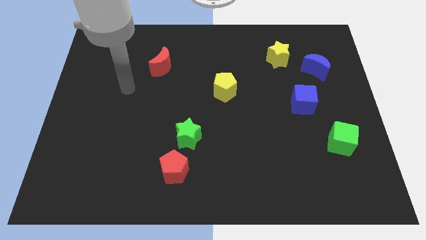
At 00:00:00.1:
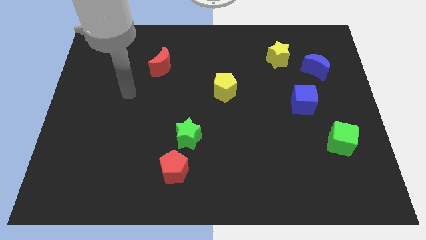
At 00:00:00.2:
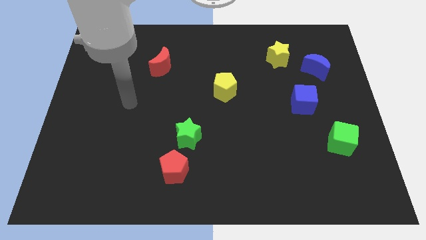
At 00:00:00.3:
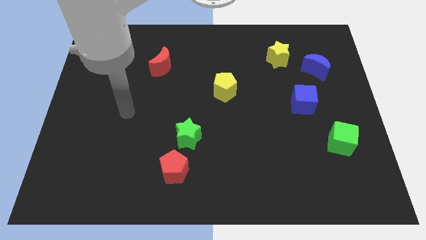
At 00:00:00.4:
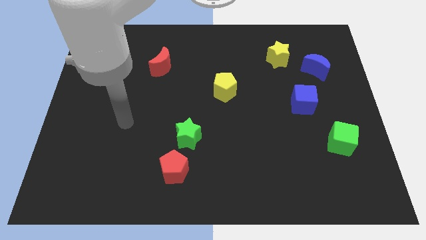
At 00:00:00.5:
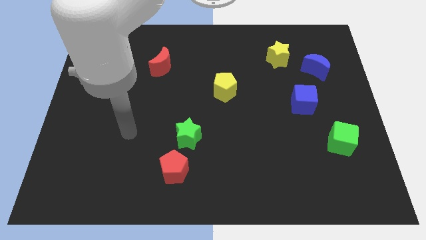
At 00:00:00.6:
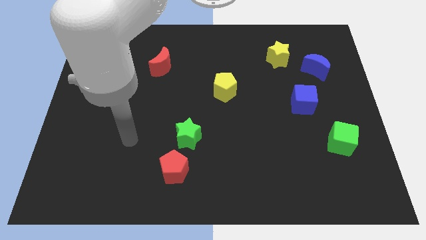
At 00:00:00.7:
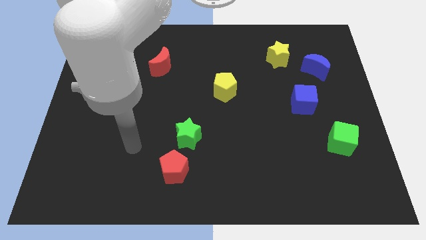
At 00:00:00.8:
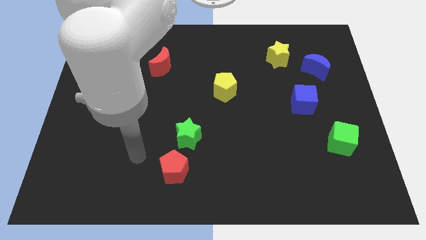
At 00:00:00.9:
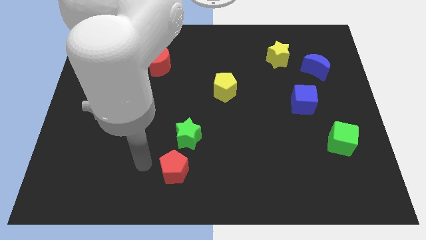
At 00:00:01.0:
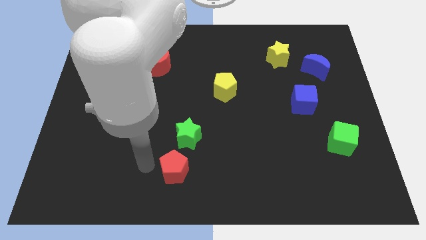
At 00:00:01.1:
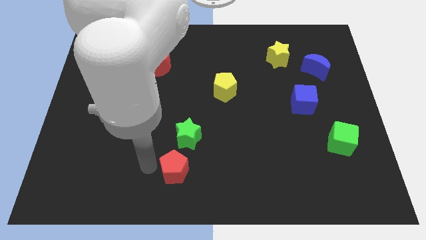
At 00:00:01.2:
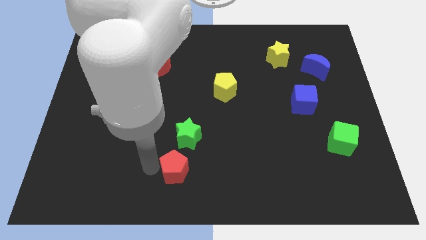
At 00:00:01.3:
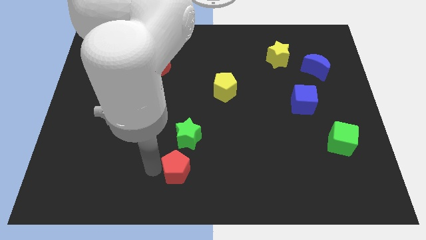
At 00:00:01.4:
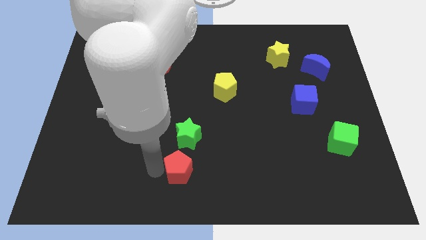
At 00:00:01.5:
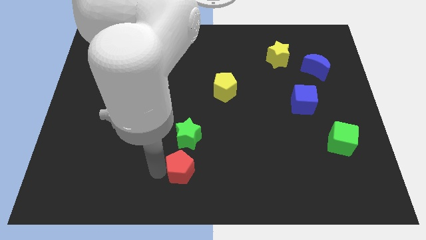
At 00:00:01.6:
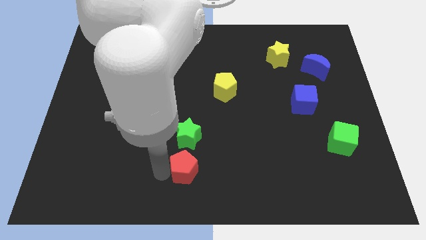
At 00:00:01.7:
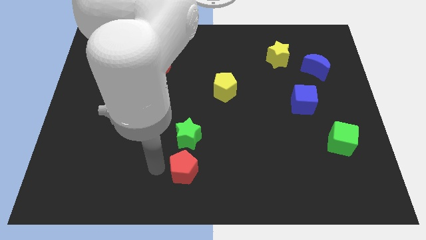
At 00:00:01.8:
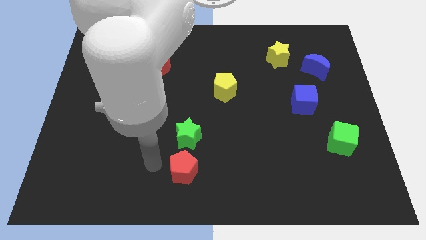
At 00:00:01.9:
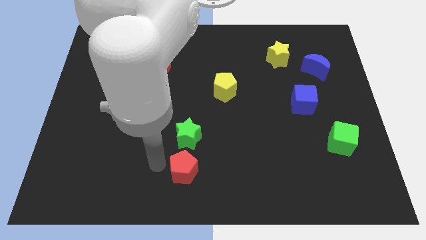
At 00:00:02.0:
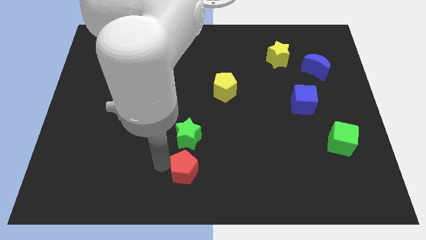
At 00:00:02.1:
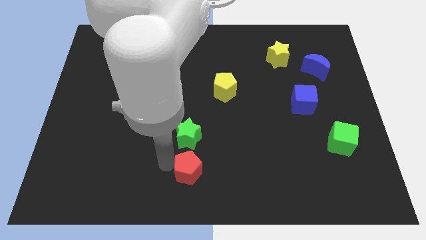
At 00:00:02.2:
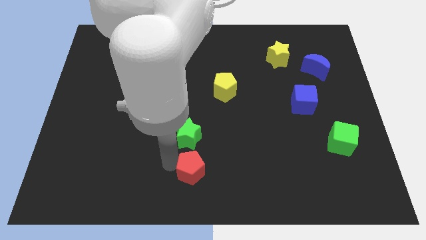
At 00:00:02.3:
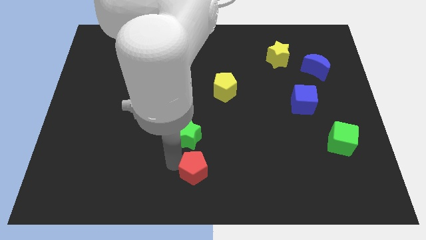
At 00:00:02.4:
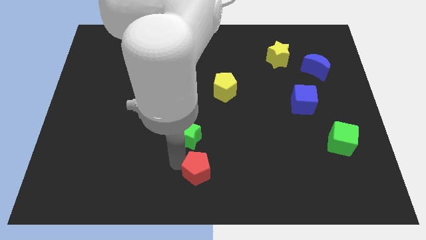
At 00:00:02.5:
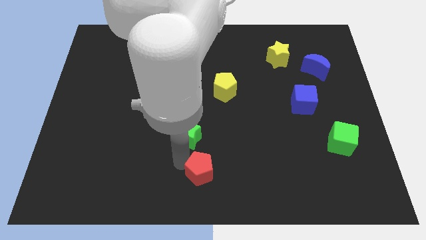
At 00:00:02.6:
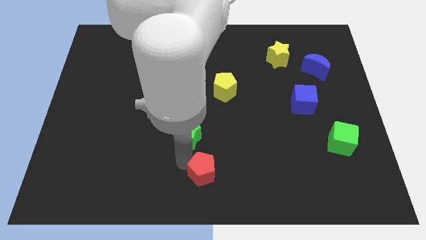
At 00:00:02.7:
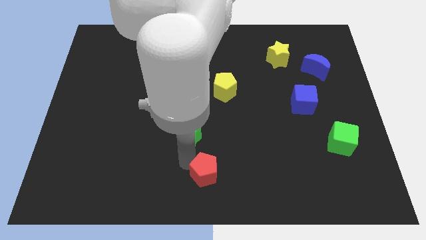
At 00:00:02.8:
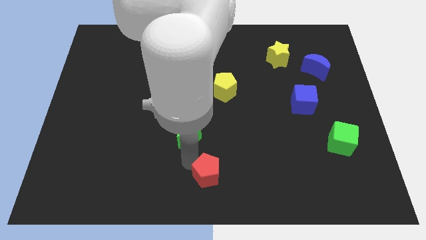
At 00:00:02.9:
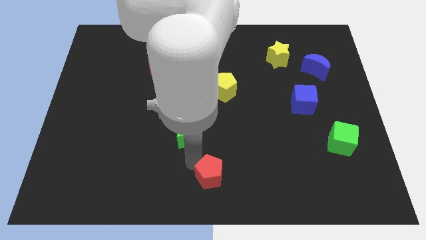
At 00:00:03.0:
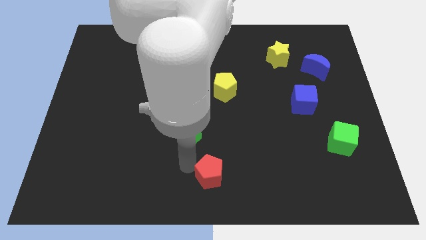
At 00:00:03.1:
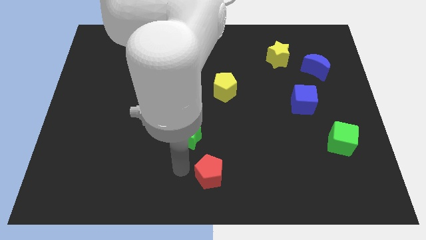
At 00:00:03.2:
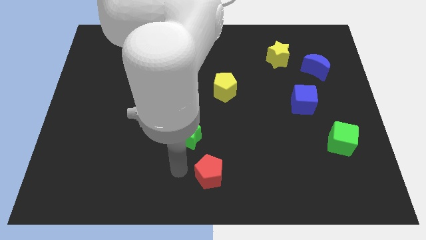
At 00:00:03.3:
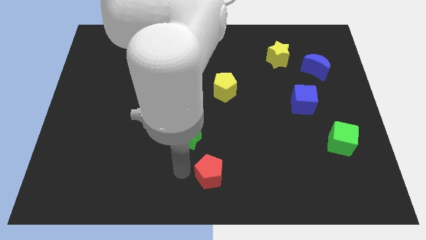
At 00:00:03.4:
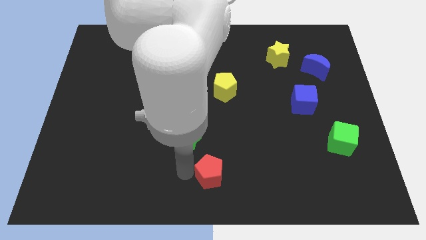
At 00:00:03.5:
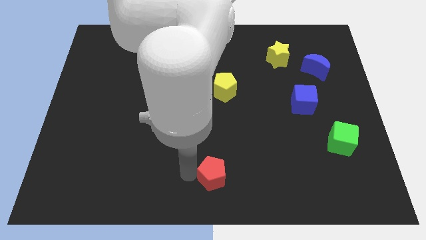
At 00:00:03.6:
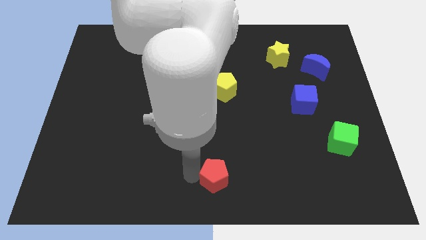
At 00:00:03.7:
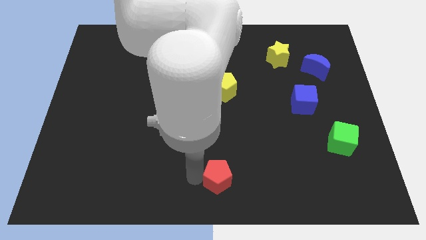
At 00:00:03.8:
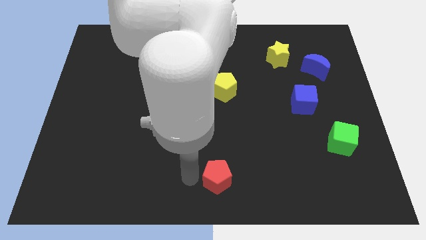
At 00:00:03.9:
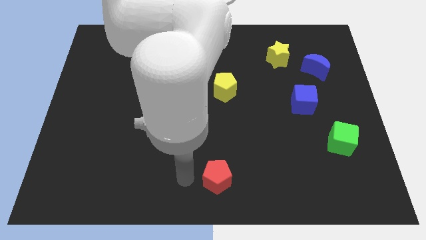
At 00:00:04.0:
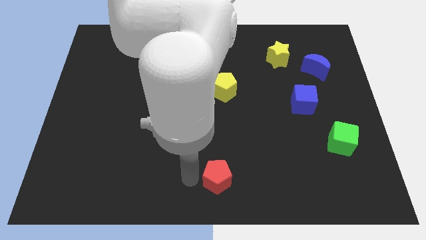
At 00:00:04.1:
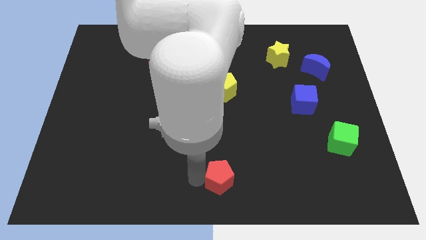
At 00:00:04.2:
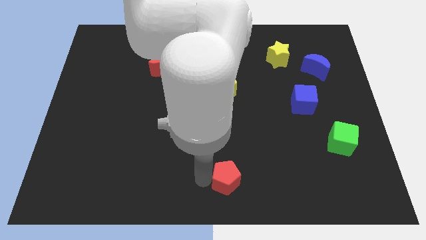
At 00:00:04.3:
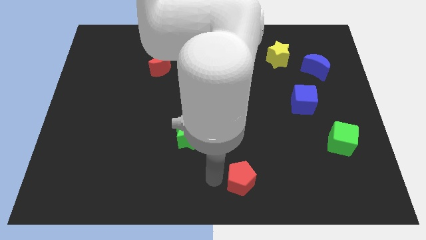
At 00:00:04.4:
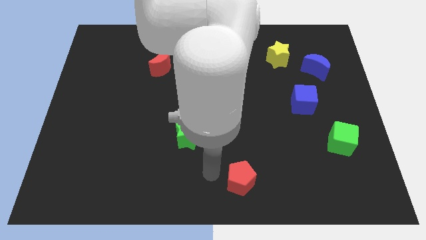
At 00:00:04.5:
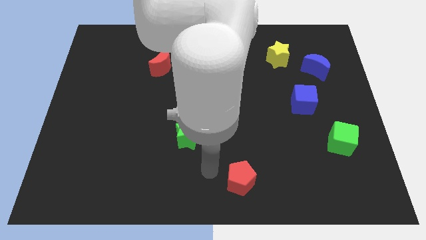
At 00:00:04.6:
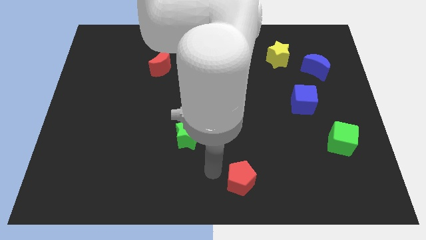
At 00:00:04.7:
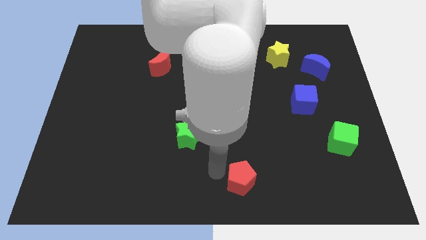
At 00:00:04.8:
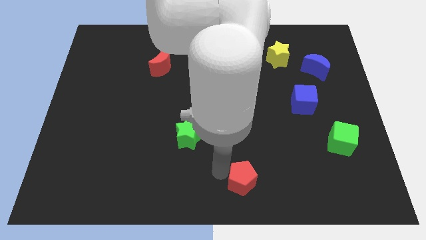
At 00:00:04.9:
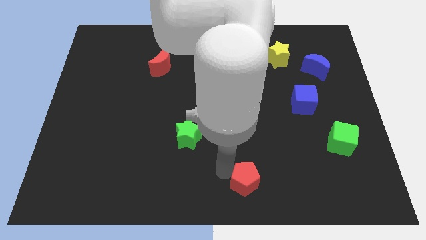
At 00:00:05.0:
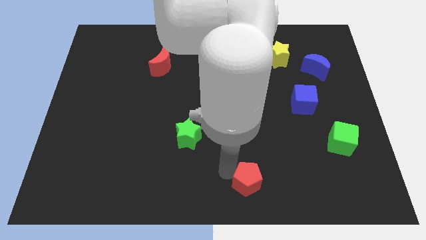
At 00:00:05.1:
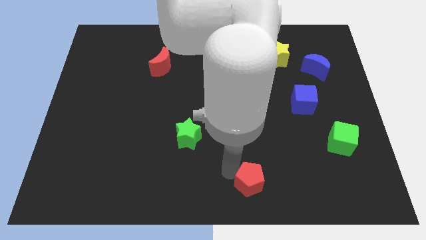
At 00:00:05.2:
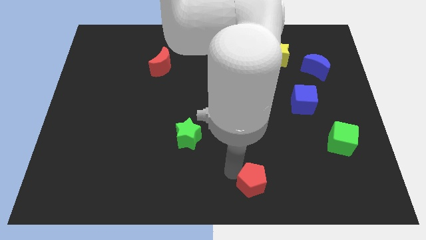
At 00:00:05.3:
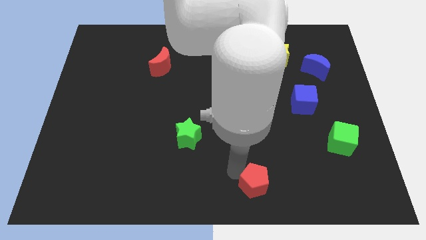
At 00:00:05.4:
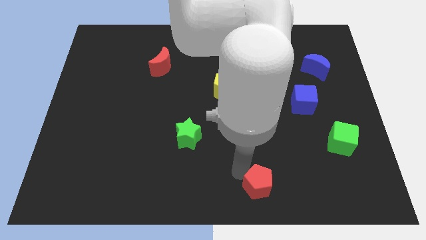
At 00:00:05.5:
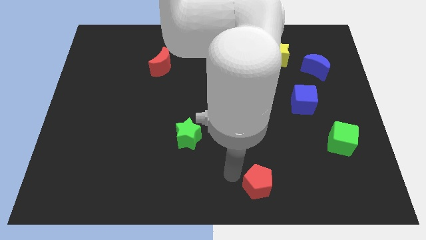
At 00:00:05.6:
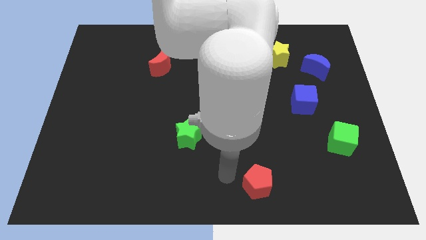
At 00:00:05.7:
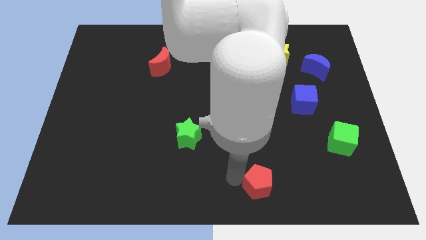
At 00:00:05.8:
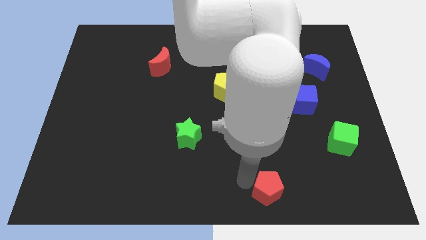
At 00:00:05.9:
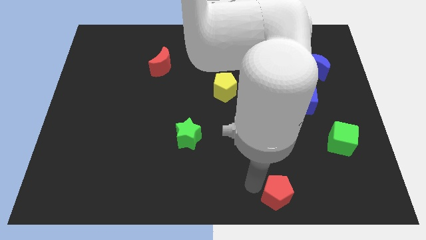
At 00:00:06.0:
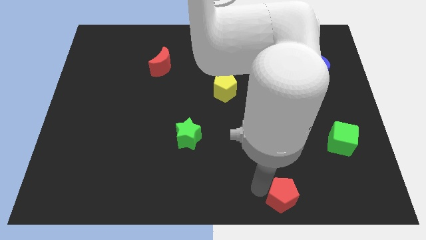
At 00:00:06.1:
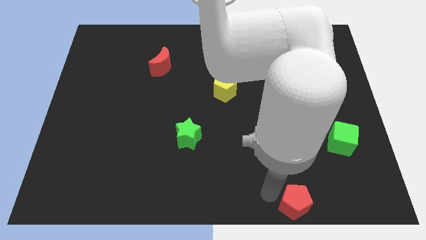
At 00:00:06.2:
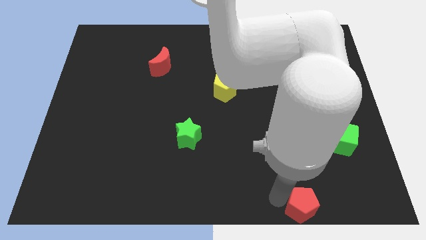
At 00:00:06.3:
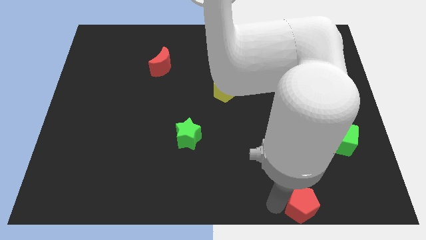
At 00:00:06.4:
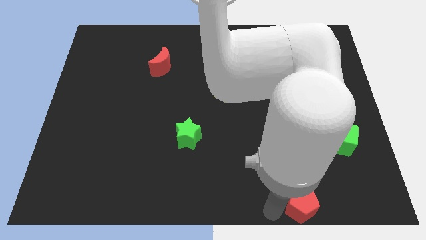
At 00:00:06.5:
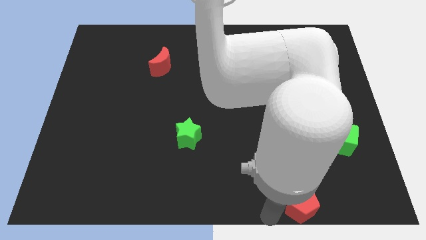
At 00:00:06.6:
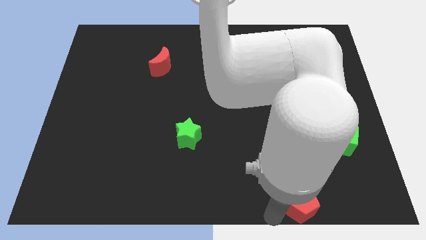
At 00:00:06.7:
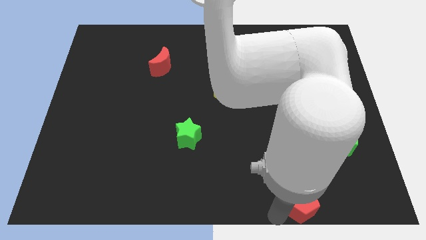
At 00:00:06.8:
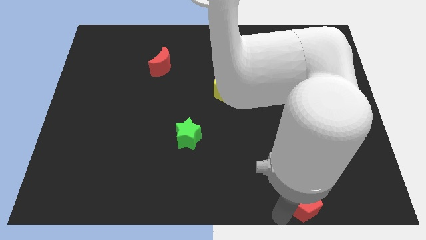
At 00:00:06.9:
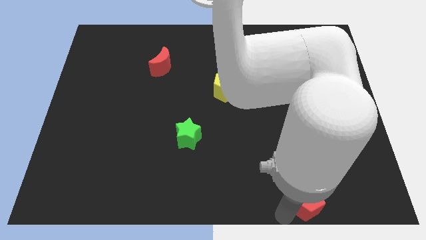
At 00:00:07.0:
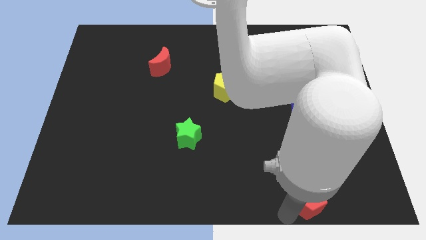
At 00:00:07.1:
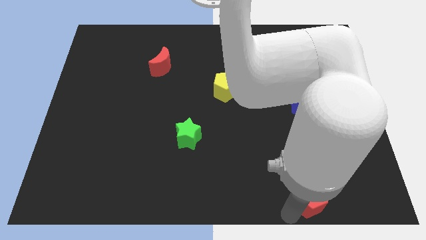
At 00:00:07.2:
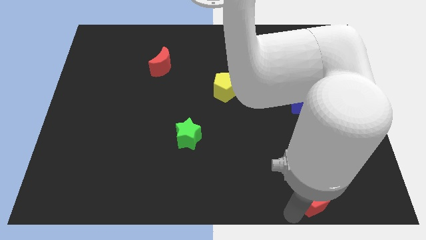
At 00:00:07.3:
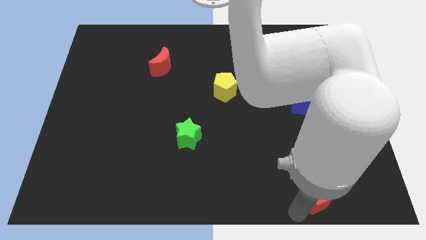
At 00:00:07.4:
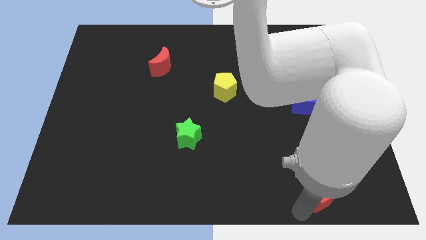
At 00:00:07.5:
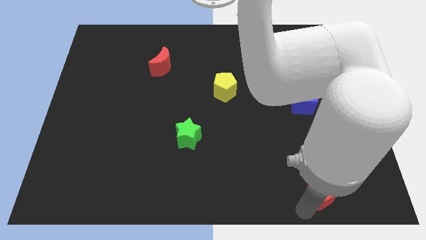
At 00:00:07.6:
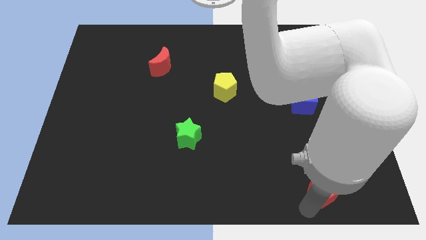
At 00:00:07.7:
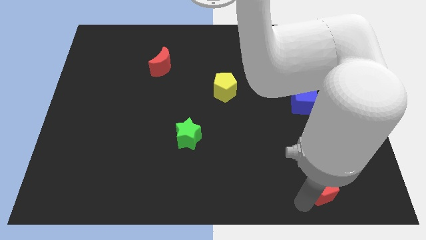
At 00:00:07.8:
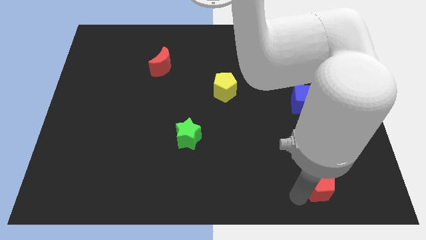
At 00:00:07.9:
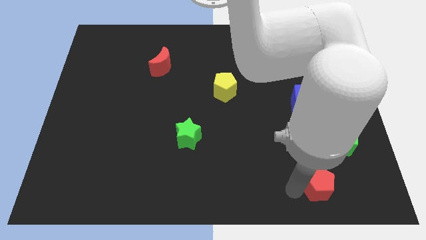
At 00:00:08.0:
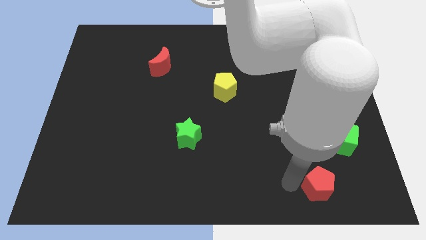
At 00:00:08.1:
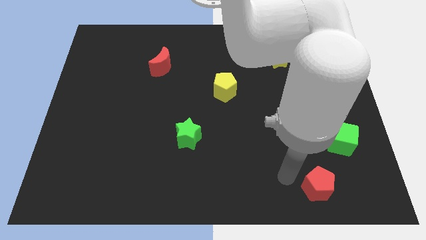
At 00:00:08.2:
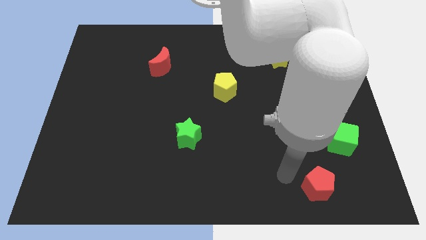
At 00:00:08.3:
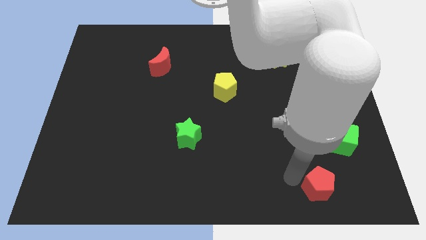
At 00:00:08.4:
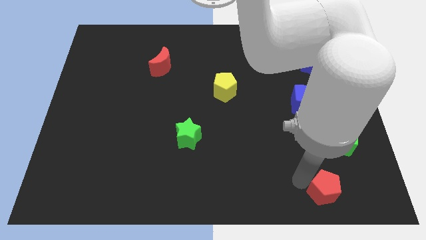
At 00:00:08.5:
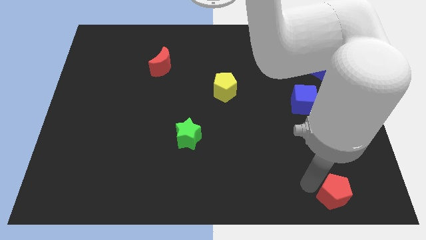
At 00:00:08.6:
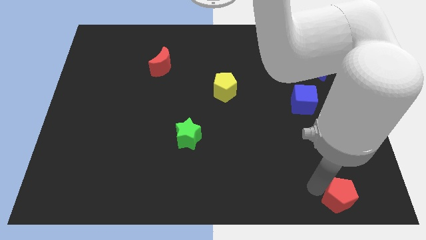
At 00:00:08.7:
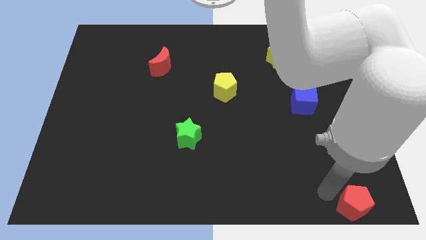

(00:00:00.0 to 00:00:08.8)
slide the red pentagon to the lower right corner
